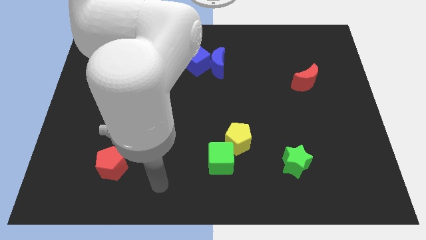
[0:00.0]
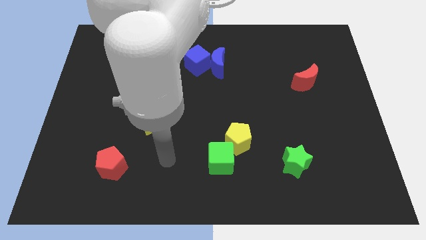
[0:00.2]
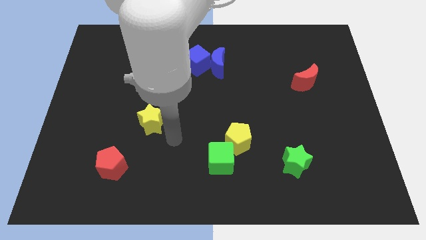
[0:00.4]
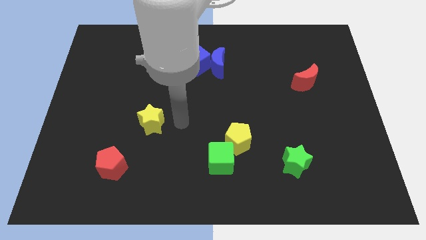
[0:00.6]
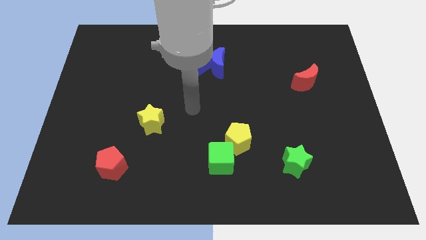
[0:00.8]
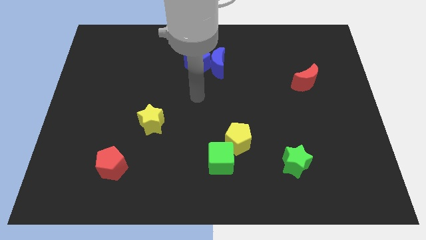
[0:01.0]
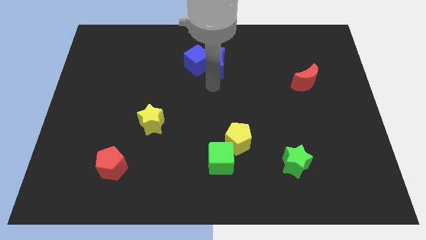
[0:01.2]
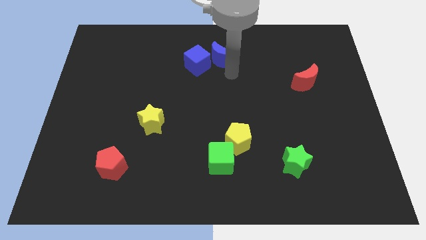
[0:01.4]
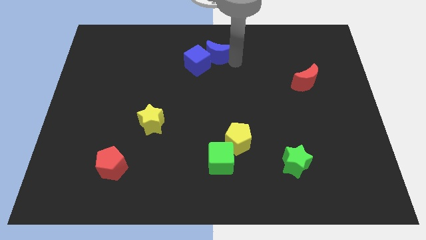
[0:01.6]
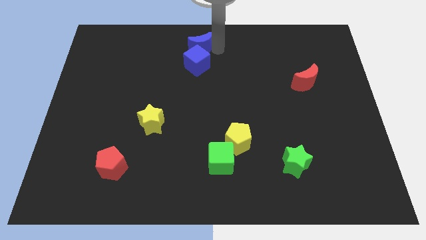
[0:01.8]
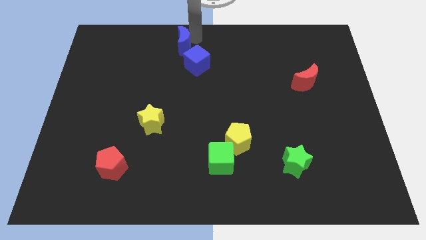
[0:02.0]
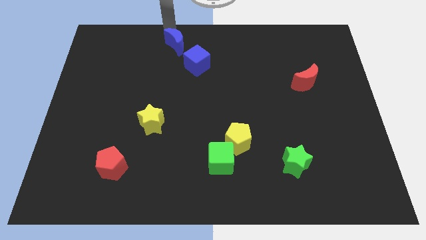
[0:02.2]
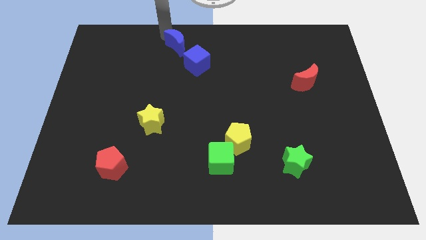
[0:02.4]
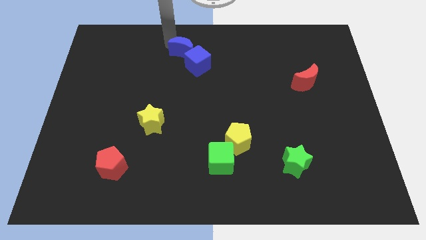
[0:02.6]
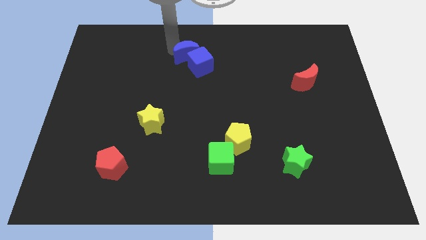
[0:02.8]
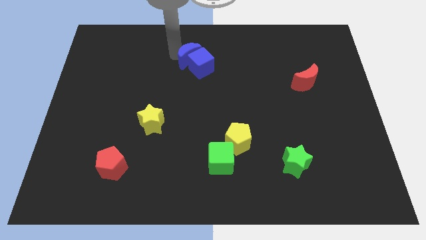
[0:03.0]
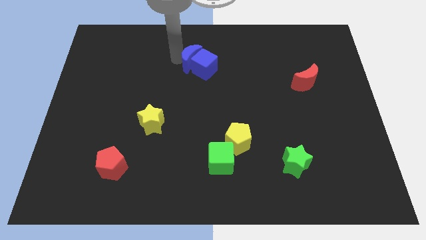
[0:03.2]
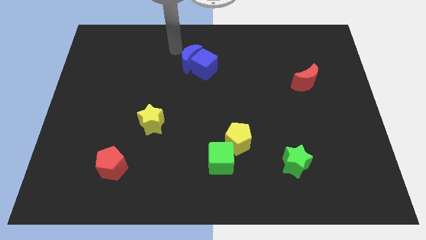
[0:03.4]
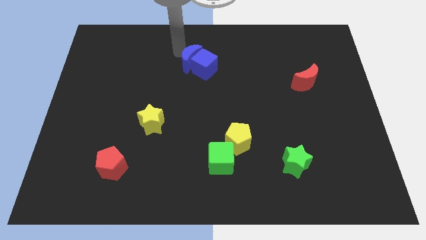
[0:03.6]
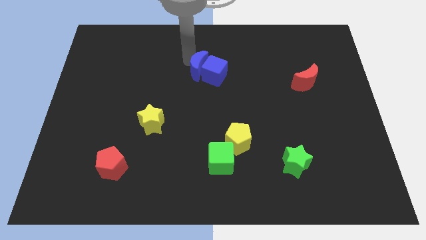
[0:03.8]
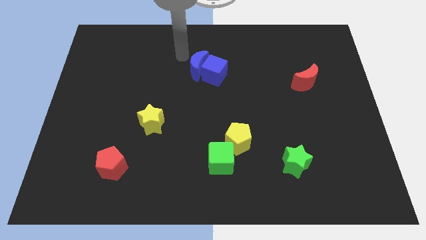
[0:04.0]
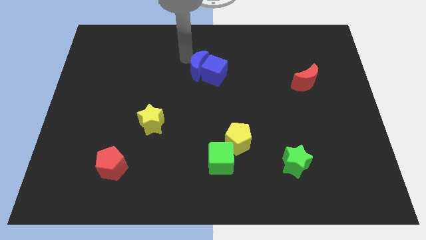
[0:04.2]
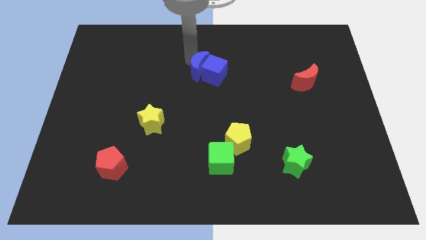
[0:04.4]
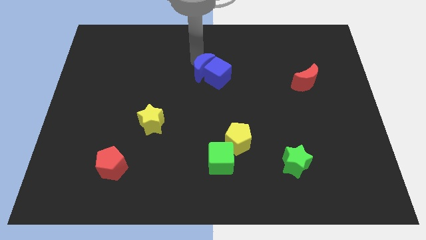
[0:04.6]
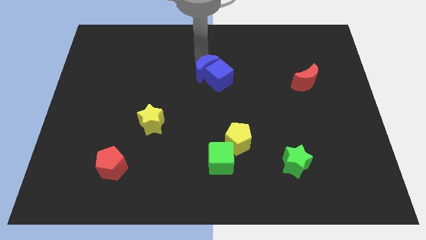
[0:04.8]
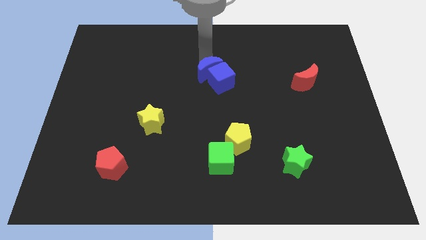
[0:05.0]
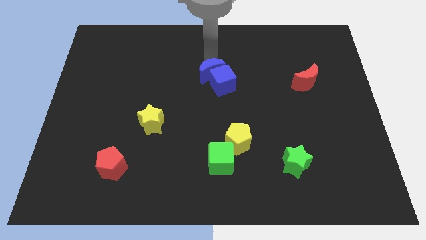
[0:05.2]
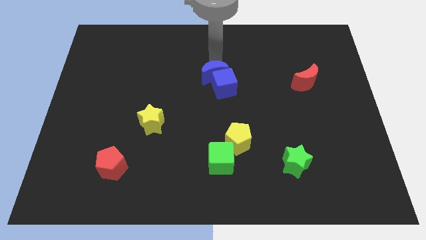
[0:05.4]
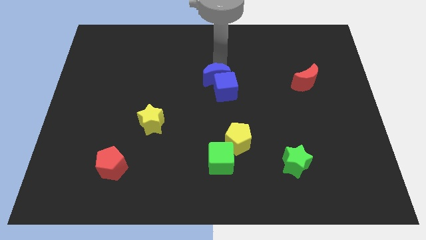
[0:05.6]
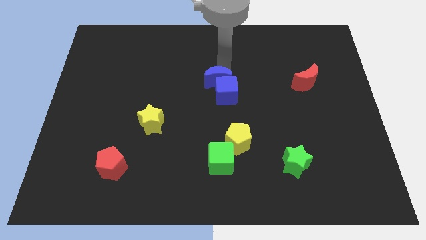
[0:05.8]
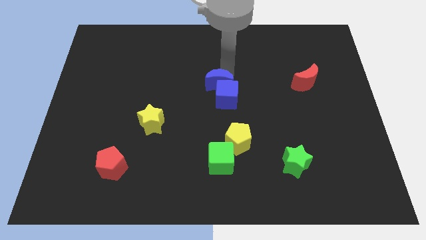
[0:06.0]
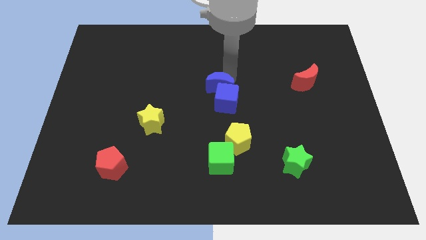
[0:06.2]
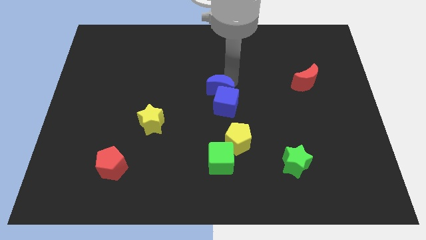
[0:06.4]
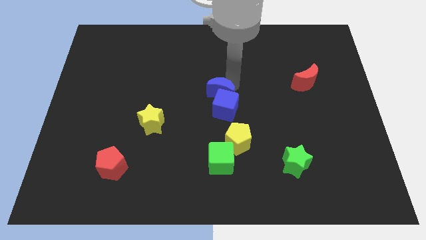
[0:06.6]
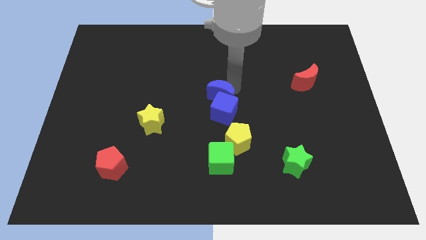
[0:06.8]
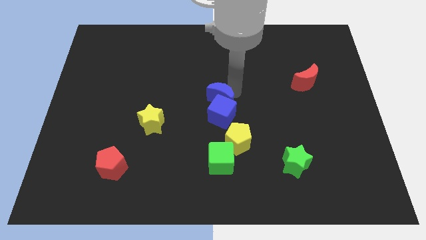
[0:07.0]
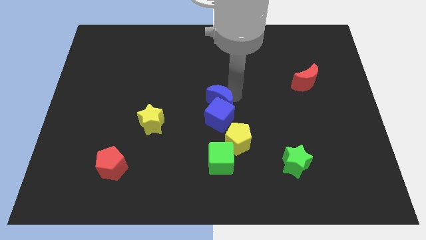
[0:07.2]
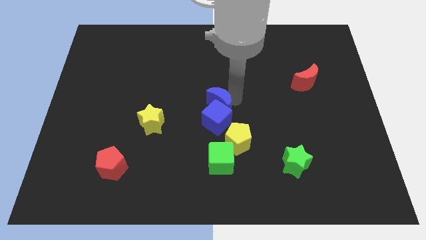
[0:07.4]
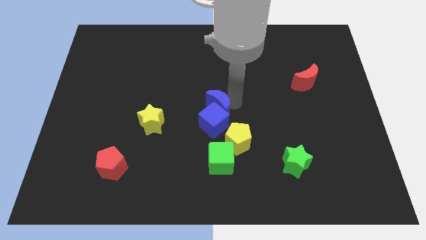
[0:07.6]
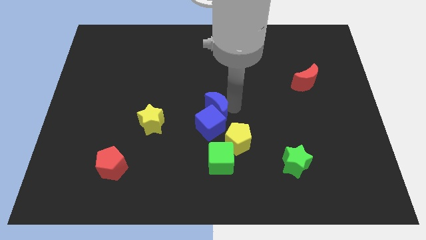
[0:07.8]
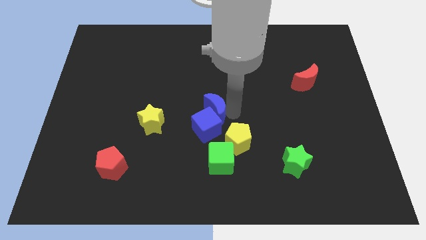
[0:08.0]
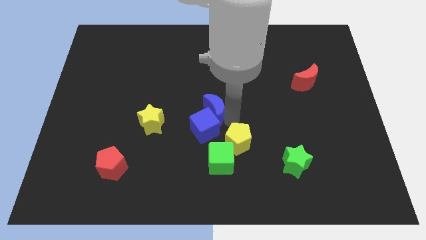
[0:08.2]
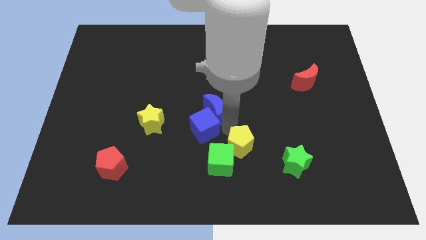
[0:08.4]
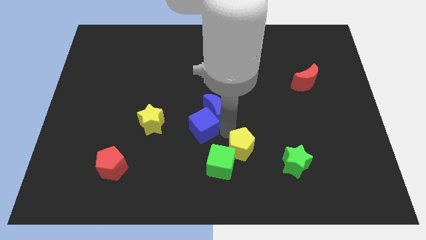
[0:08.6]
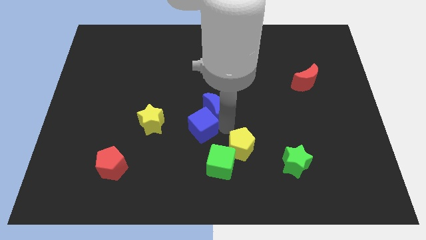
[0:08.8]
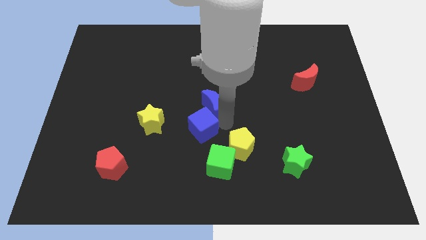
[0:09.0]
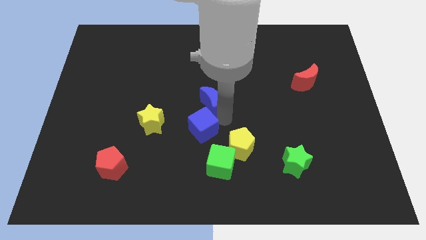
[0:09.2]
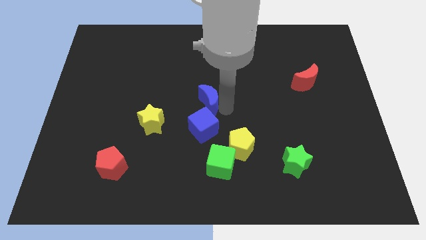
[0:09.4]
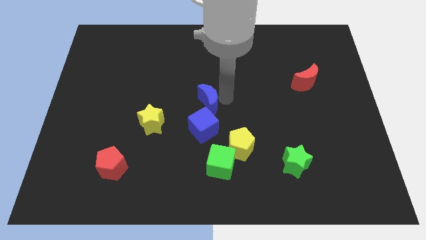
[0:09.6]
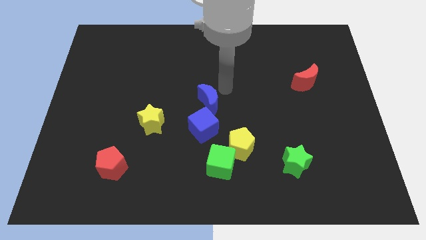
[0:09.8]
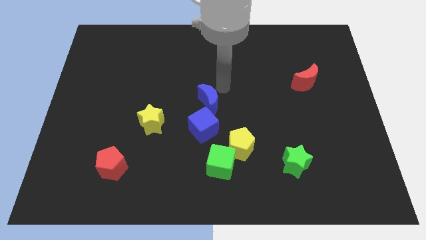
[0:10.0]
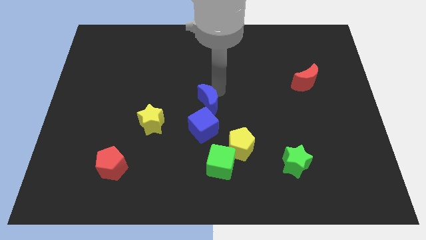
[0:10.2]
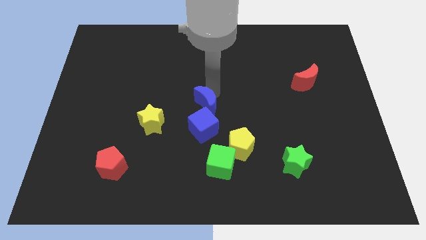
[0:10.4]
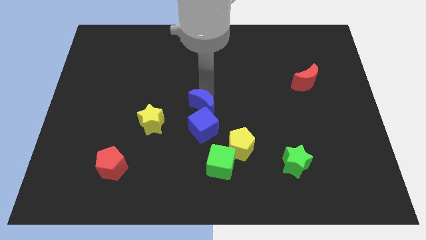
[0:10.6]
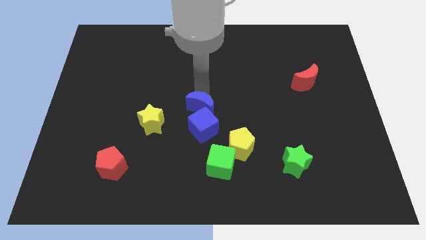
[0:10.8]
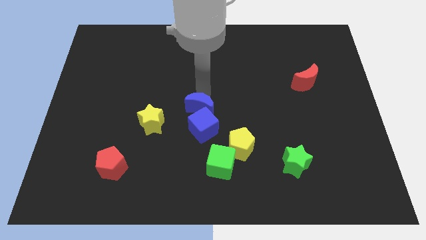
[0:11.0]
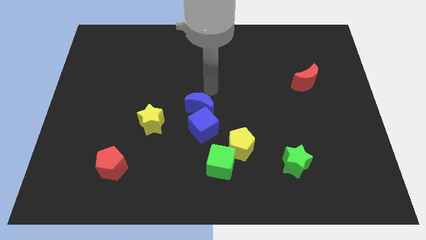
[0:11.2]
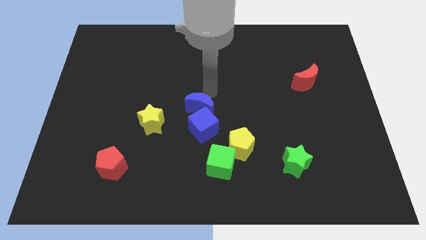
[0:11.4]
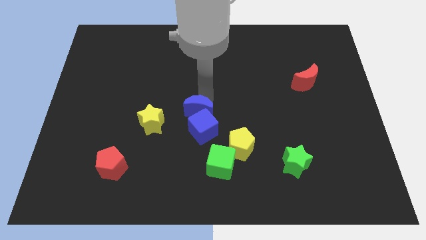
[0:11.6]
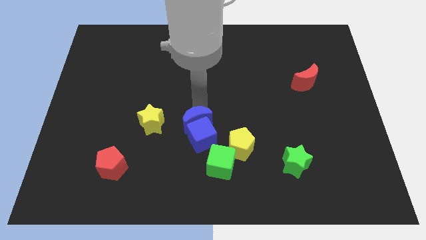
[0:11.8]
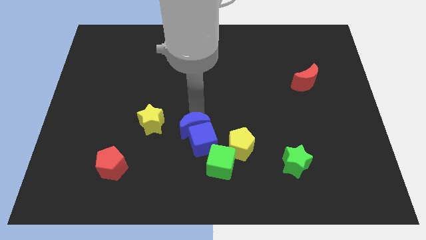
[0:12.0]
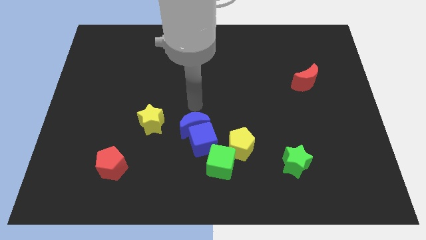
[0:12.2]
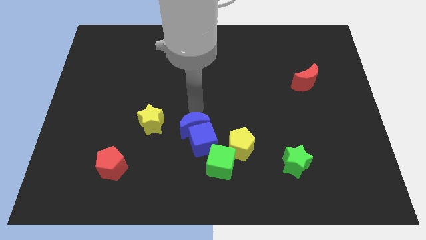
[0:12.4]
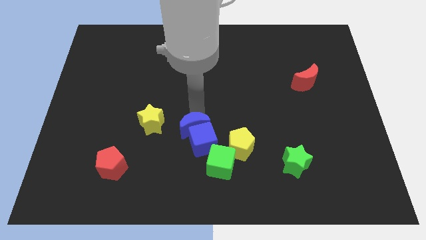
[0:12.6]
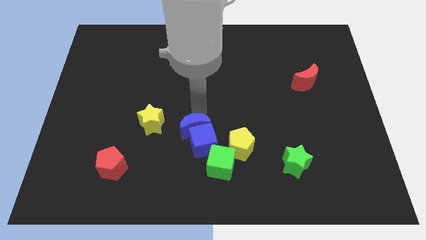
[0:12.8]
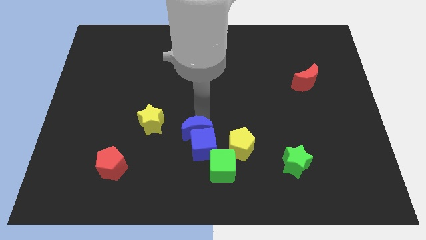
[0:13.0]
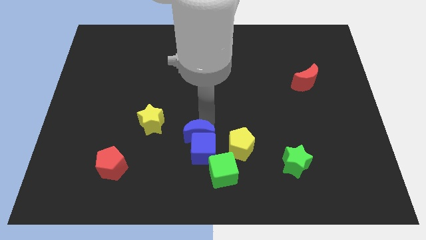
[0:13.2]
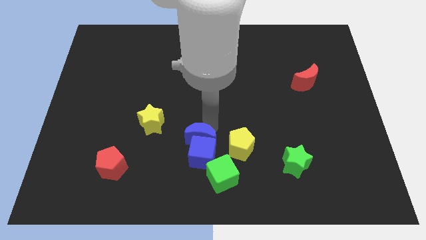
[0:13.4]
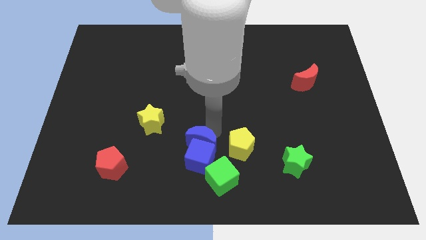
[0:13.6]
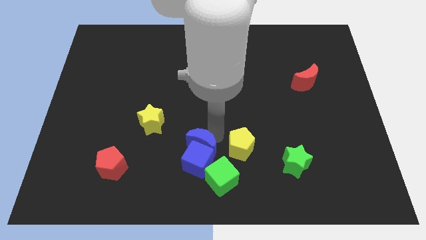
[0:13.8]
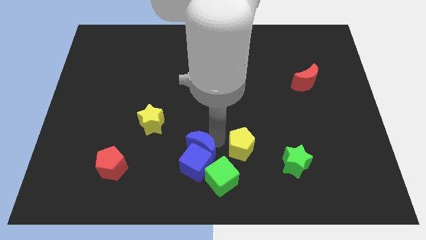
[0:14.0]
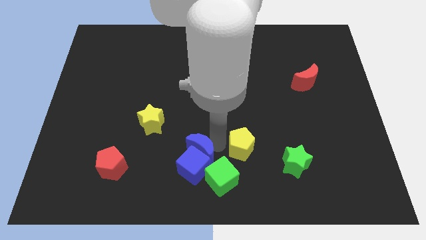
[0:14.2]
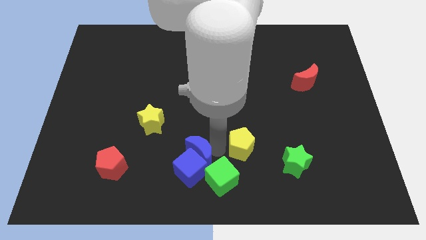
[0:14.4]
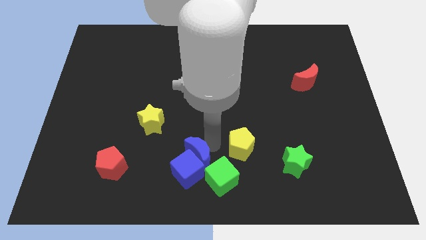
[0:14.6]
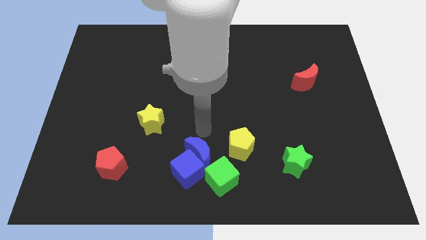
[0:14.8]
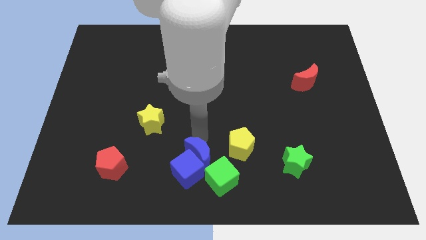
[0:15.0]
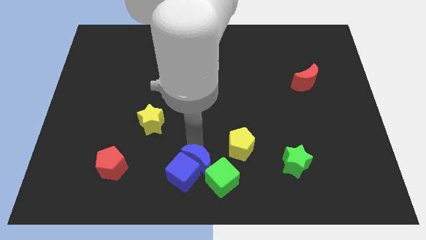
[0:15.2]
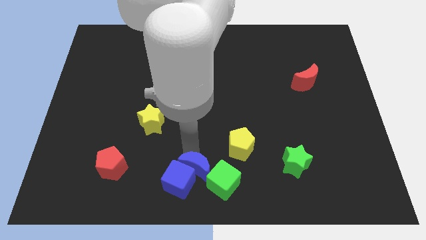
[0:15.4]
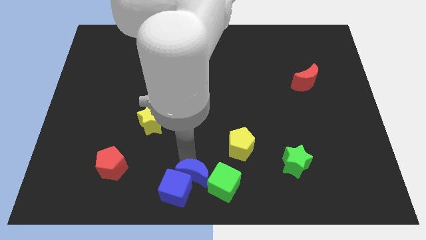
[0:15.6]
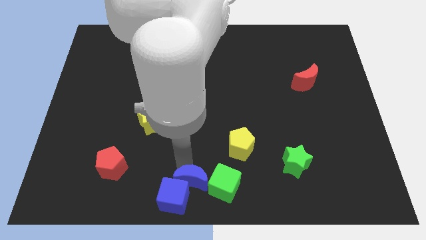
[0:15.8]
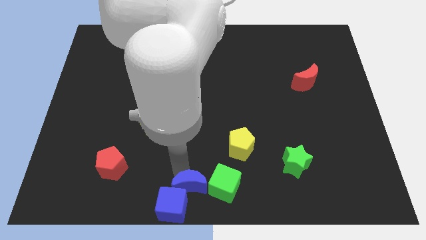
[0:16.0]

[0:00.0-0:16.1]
move the blue moon to the bottom left side of the green cube
